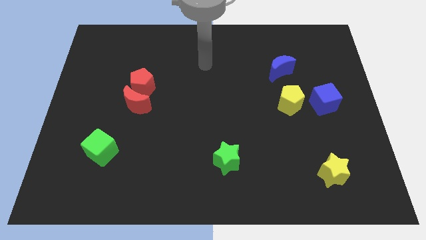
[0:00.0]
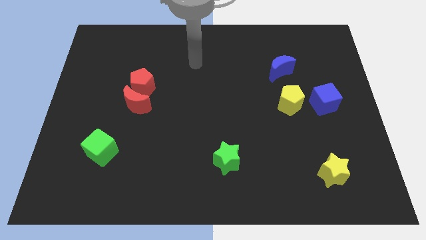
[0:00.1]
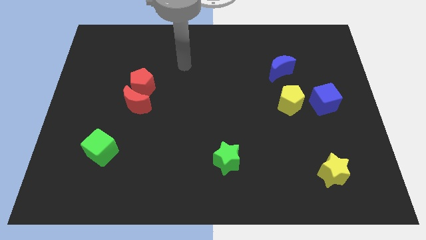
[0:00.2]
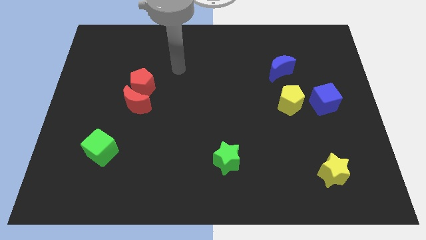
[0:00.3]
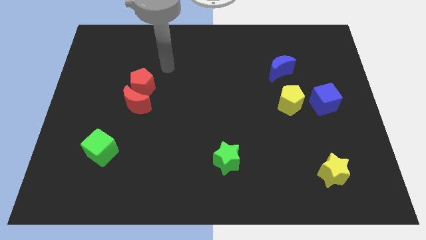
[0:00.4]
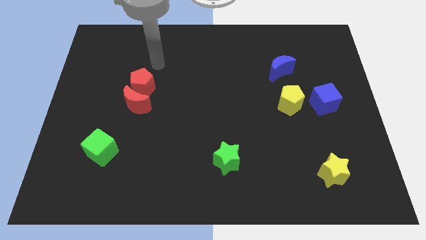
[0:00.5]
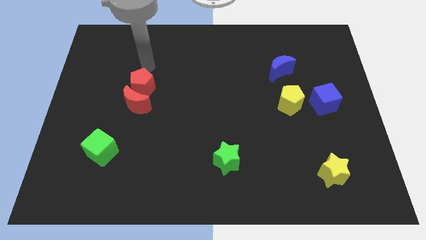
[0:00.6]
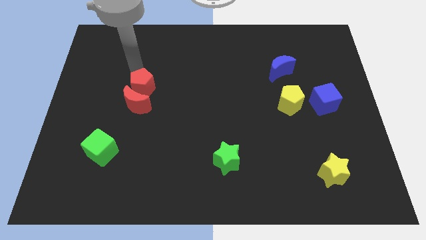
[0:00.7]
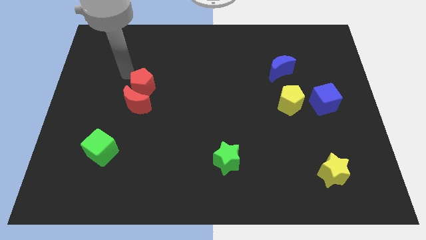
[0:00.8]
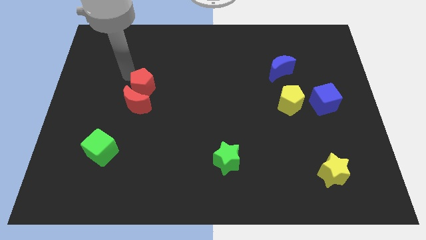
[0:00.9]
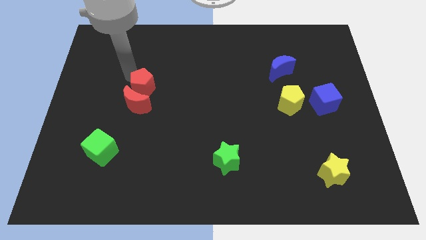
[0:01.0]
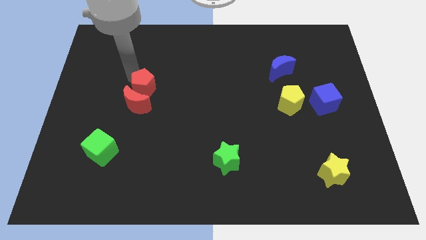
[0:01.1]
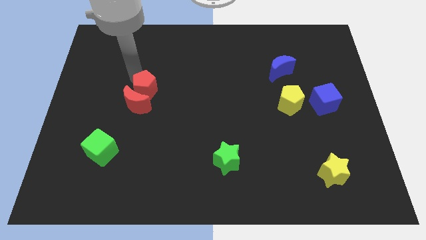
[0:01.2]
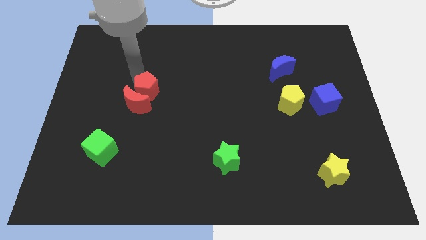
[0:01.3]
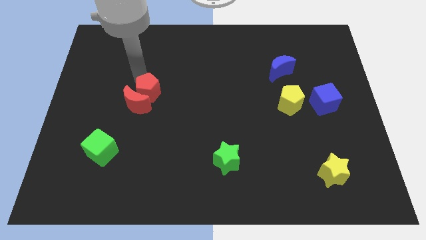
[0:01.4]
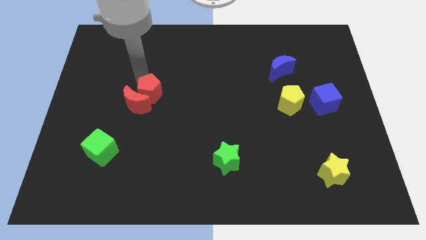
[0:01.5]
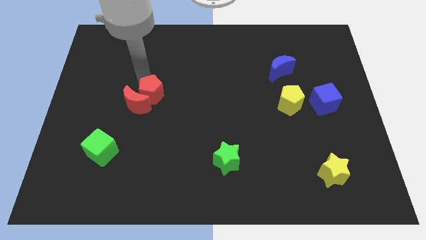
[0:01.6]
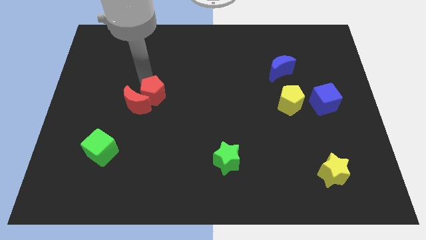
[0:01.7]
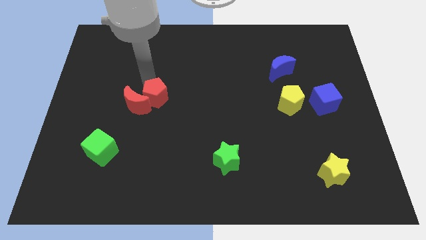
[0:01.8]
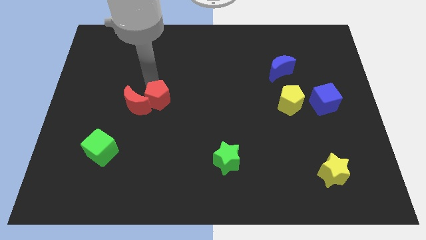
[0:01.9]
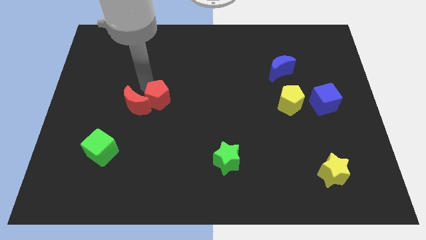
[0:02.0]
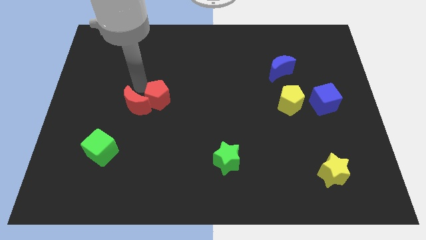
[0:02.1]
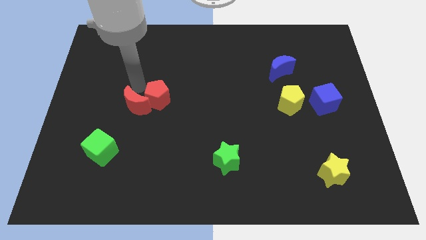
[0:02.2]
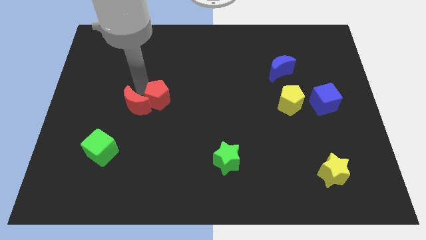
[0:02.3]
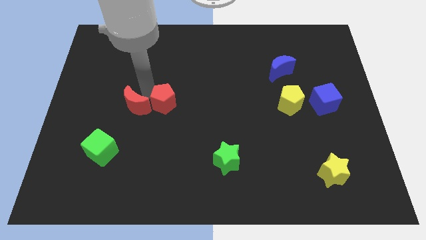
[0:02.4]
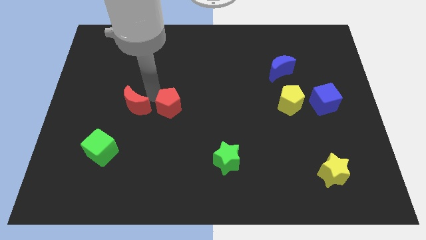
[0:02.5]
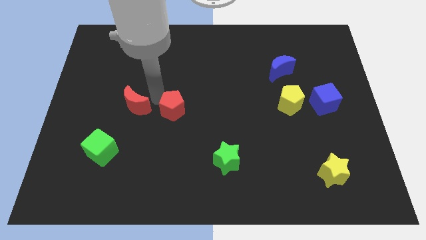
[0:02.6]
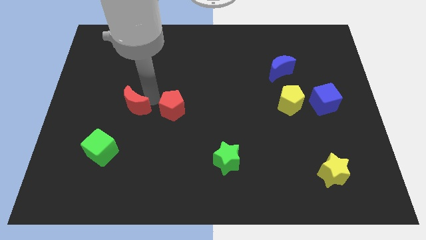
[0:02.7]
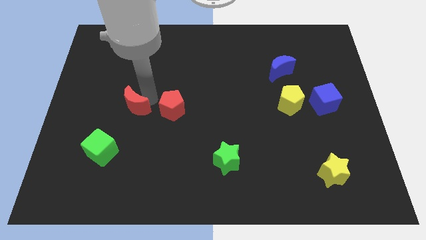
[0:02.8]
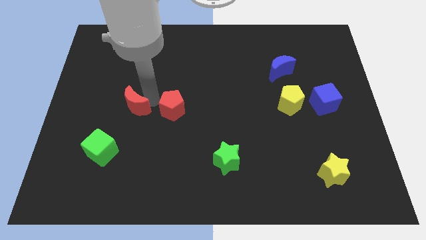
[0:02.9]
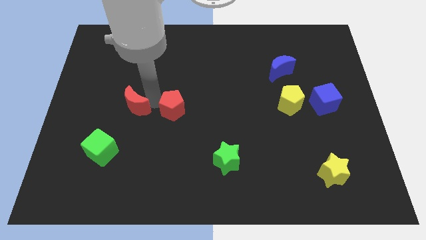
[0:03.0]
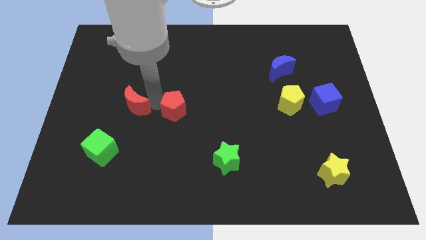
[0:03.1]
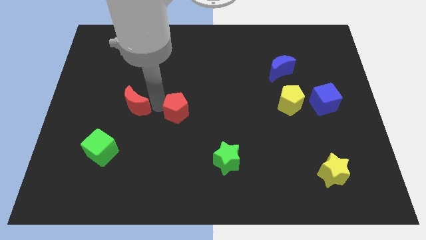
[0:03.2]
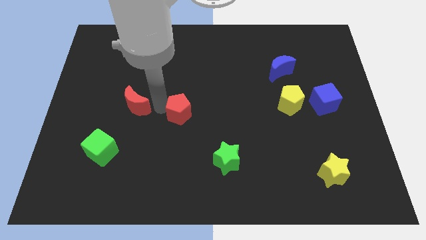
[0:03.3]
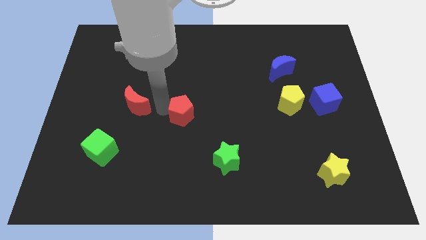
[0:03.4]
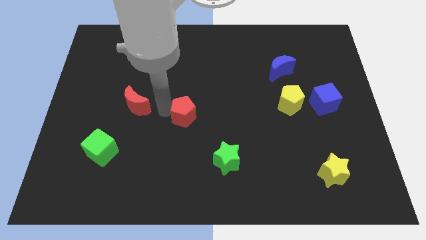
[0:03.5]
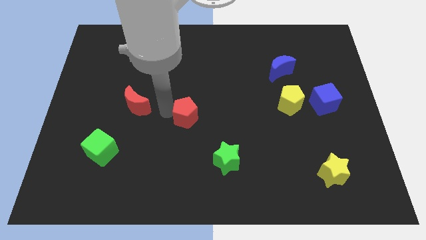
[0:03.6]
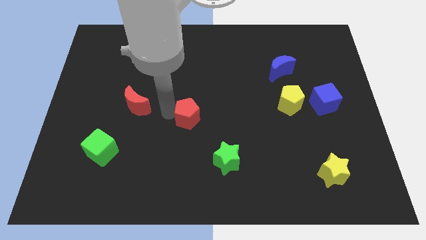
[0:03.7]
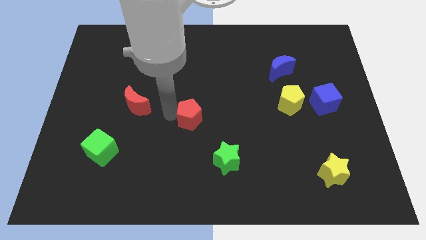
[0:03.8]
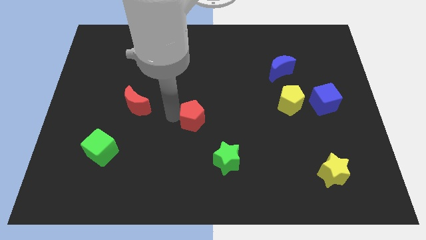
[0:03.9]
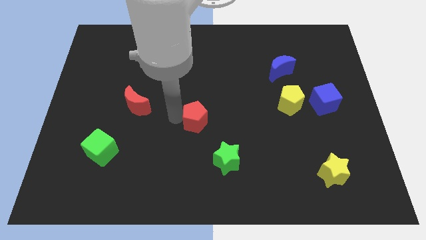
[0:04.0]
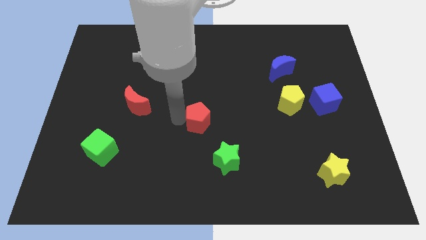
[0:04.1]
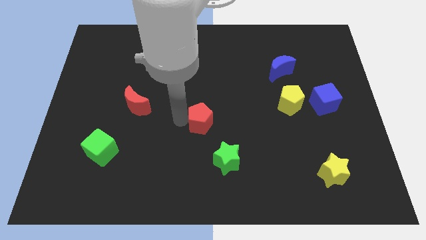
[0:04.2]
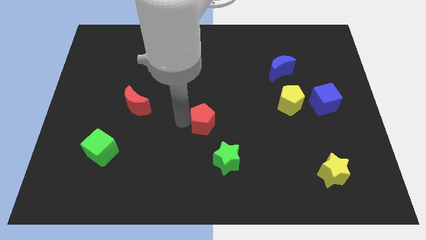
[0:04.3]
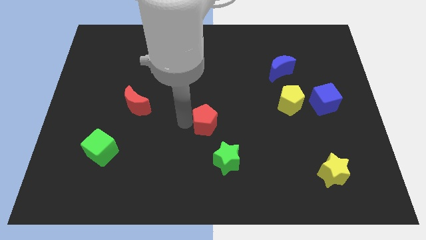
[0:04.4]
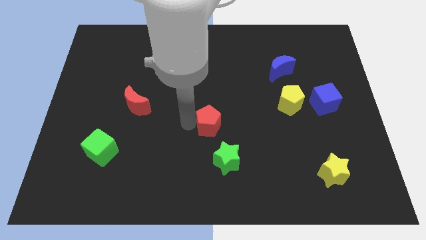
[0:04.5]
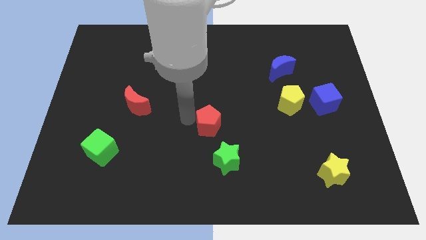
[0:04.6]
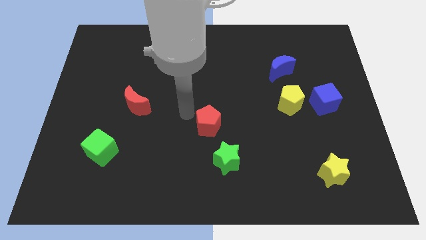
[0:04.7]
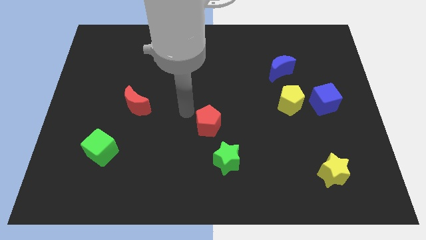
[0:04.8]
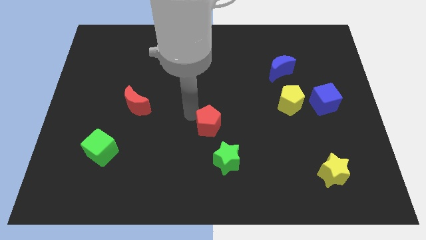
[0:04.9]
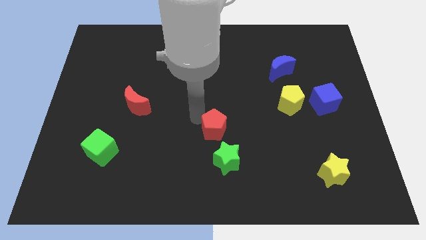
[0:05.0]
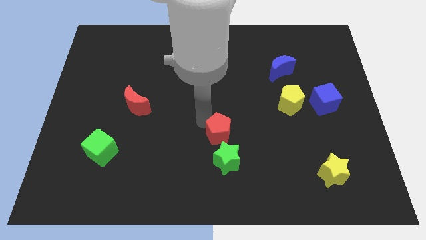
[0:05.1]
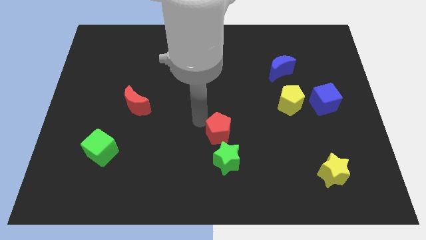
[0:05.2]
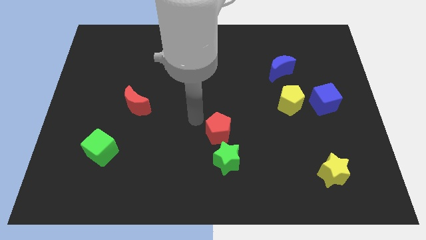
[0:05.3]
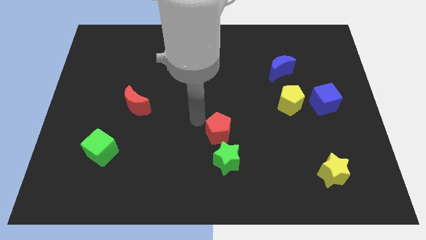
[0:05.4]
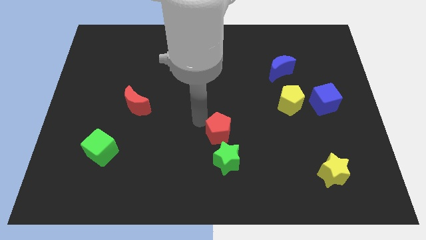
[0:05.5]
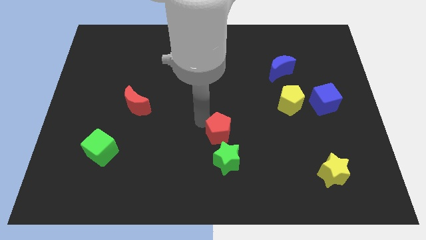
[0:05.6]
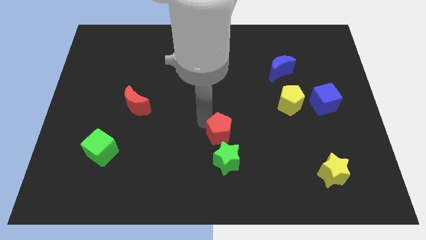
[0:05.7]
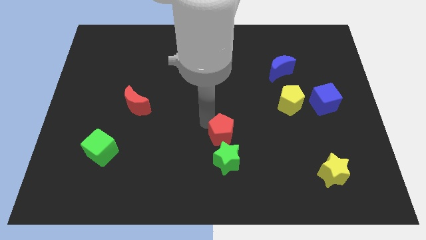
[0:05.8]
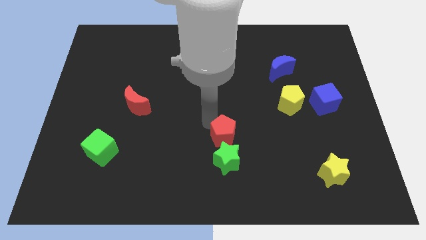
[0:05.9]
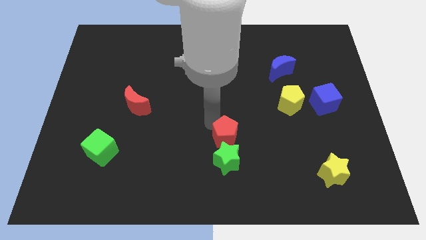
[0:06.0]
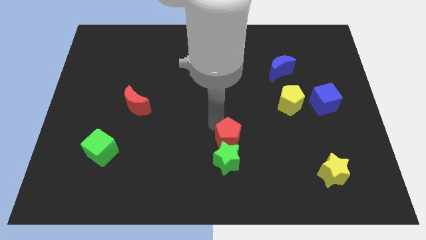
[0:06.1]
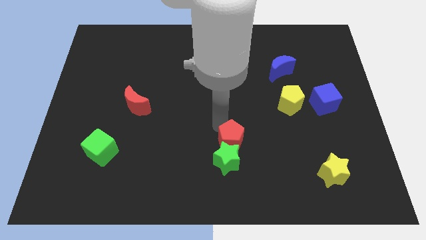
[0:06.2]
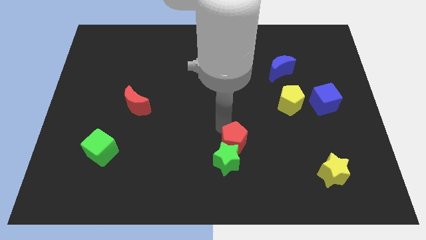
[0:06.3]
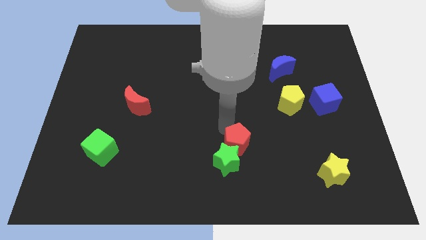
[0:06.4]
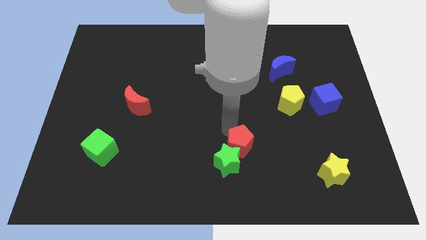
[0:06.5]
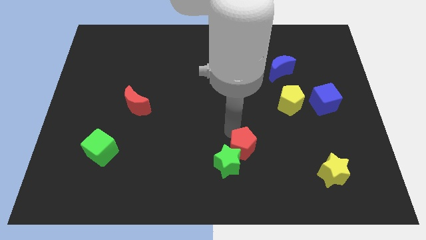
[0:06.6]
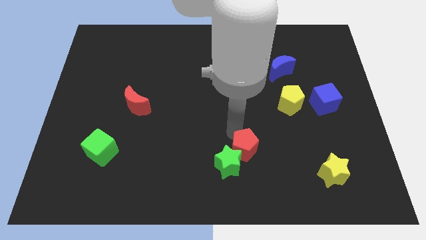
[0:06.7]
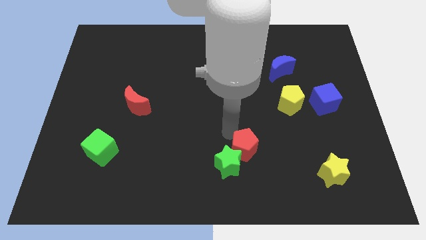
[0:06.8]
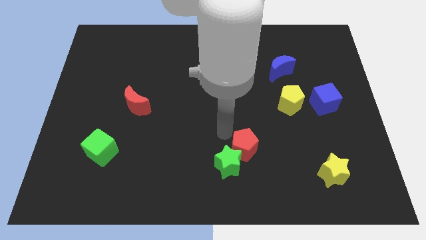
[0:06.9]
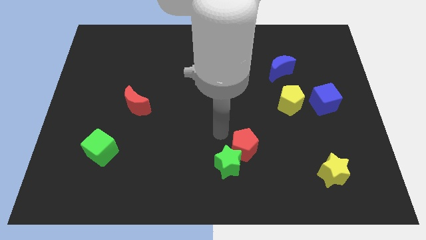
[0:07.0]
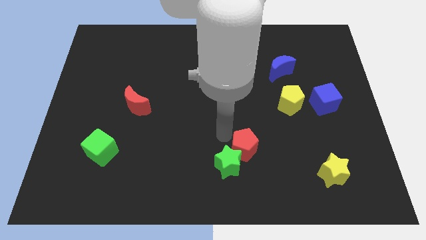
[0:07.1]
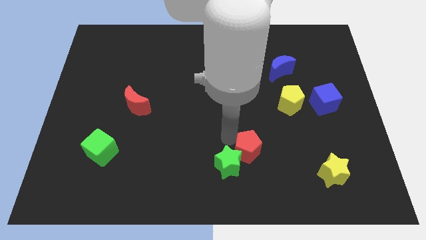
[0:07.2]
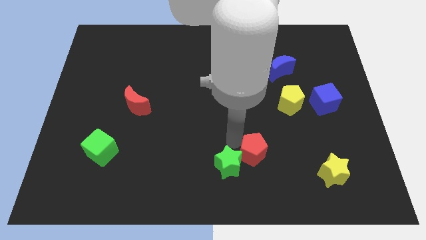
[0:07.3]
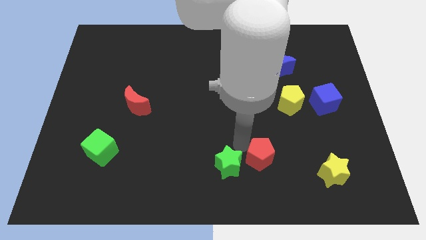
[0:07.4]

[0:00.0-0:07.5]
move the red pentagon to the left of the yellow star

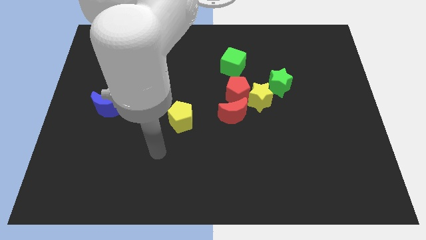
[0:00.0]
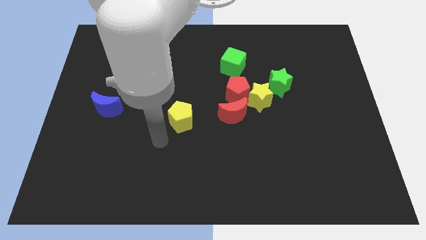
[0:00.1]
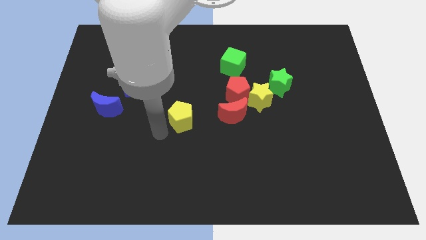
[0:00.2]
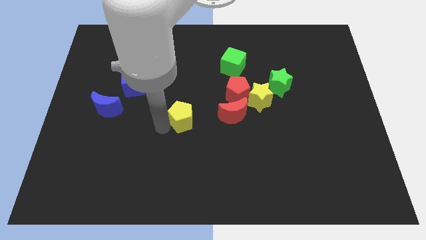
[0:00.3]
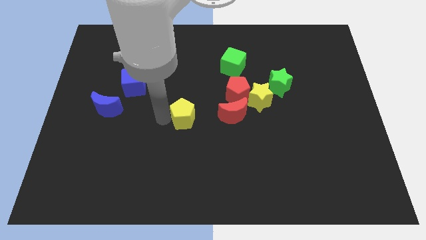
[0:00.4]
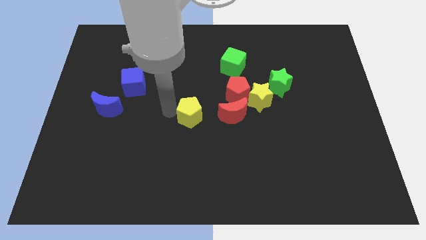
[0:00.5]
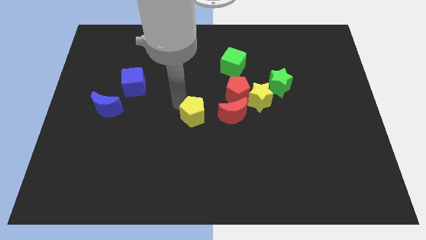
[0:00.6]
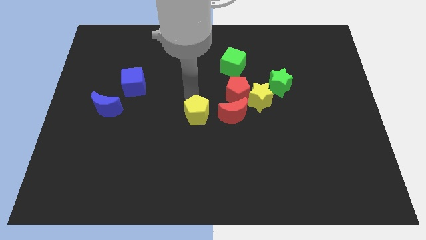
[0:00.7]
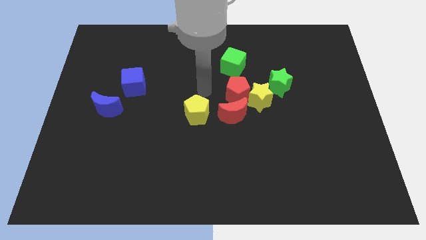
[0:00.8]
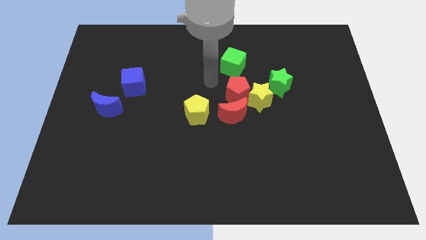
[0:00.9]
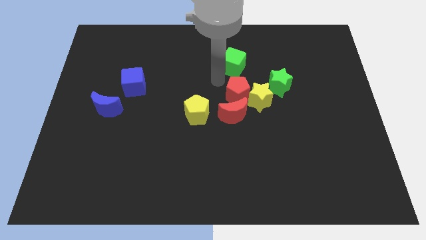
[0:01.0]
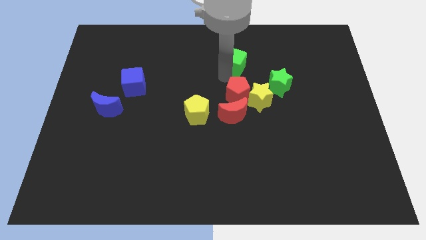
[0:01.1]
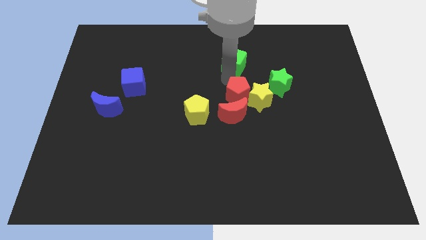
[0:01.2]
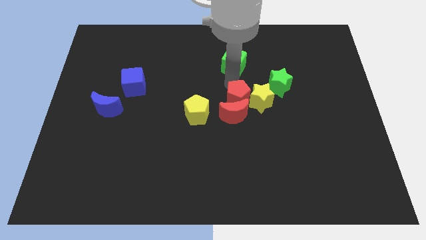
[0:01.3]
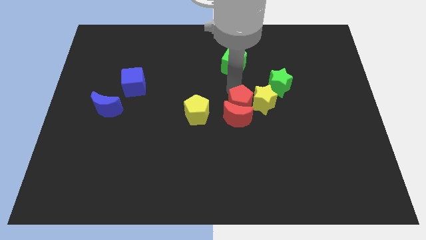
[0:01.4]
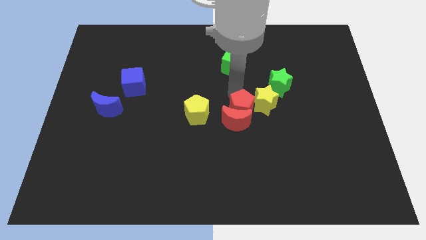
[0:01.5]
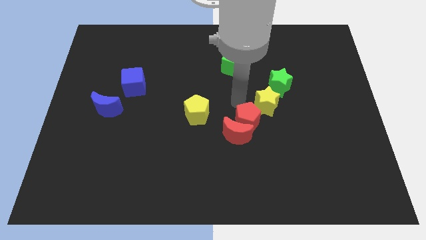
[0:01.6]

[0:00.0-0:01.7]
put the red pentagon below the yellow star
